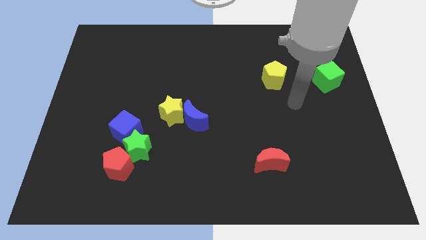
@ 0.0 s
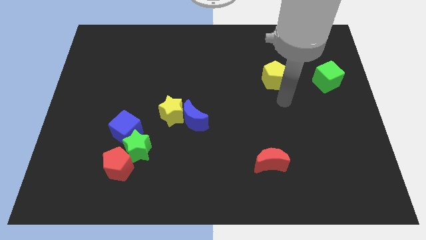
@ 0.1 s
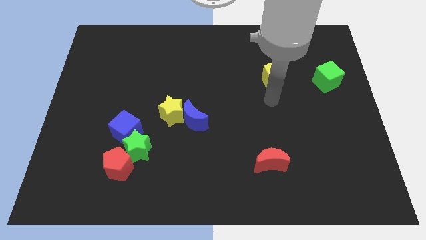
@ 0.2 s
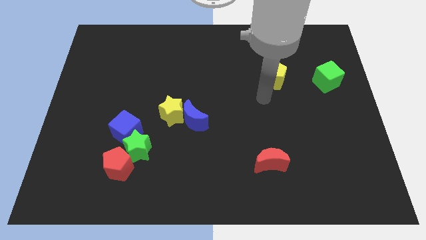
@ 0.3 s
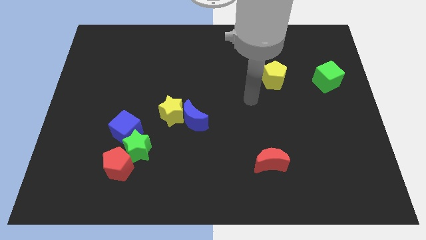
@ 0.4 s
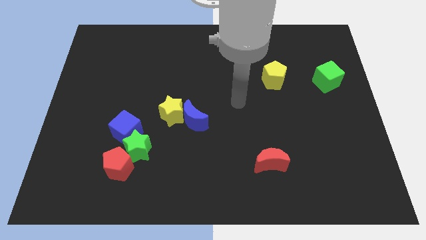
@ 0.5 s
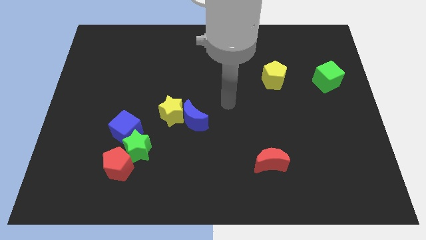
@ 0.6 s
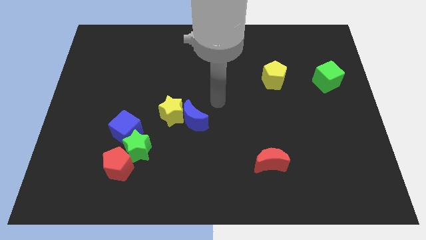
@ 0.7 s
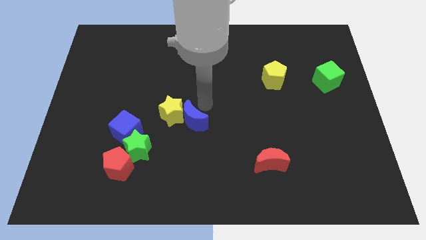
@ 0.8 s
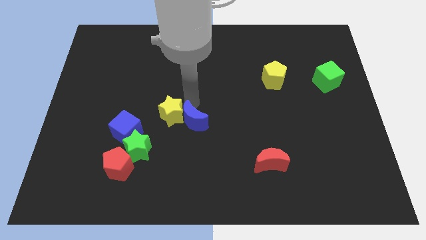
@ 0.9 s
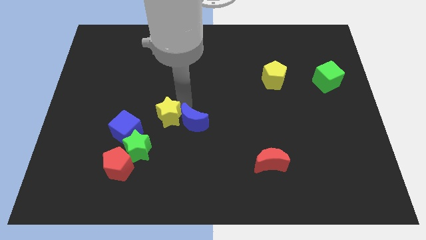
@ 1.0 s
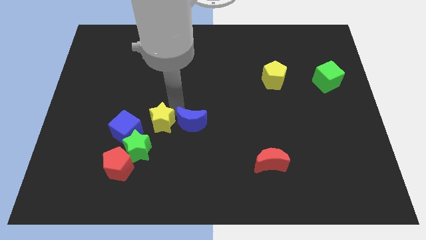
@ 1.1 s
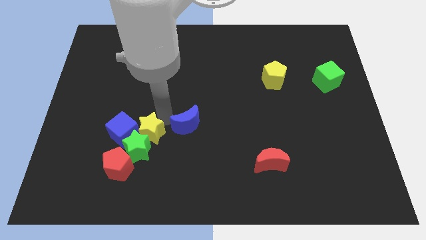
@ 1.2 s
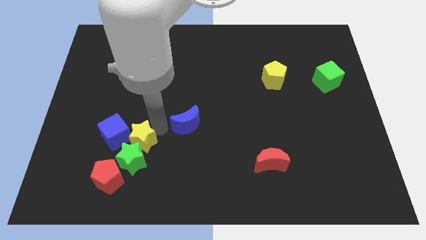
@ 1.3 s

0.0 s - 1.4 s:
pull the blue moon apart from the yellow star

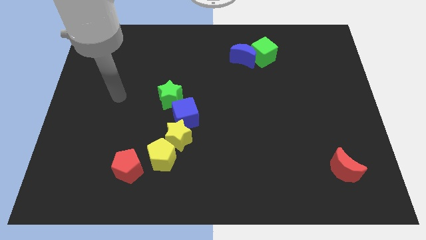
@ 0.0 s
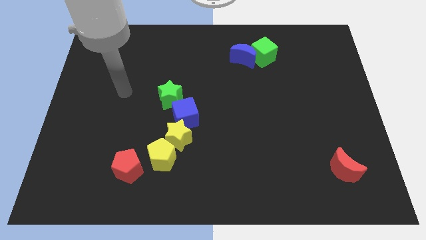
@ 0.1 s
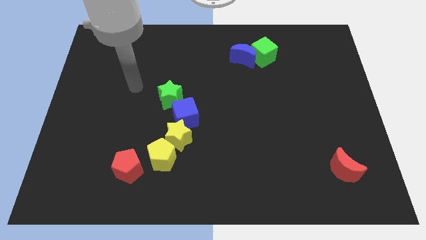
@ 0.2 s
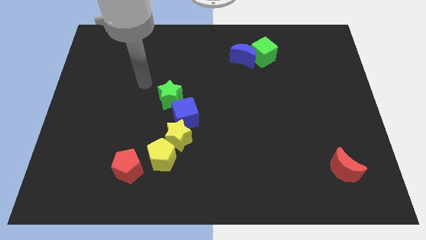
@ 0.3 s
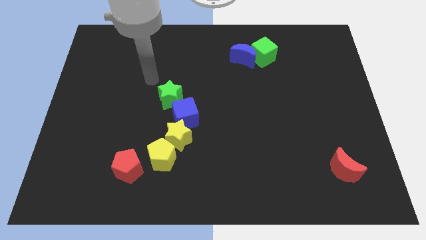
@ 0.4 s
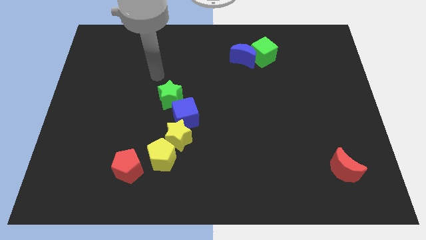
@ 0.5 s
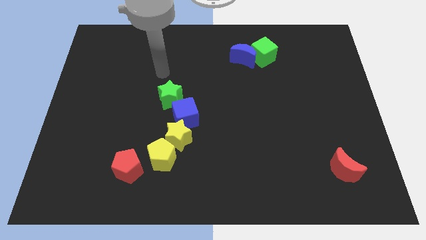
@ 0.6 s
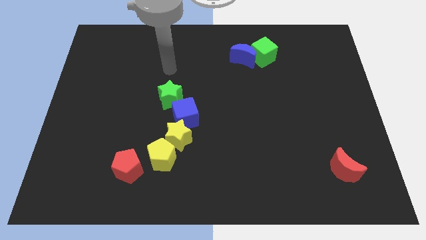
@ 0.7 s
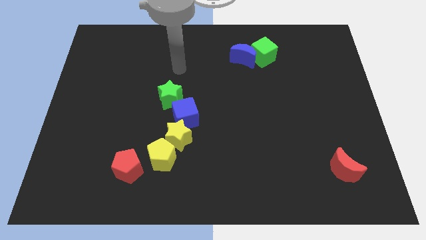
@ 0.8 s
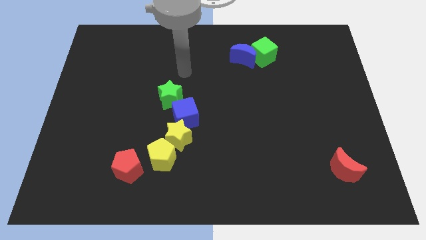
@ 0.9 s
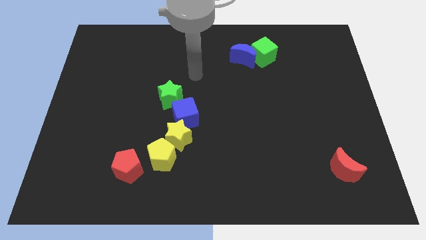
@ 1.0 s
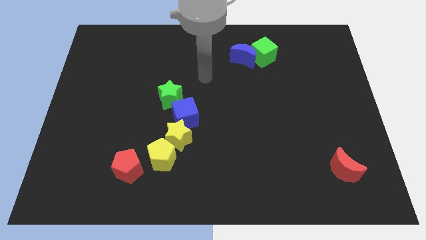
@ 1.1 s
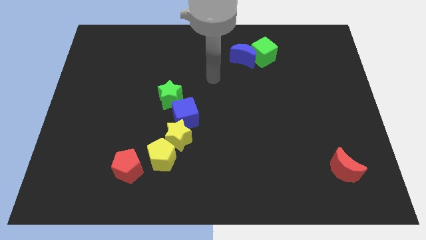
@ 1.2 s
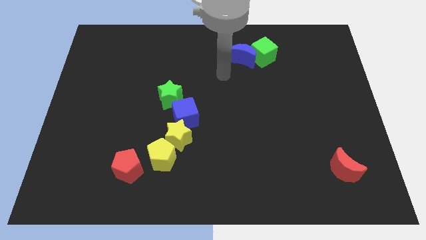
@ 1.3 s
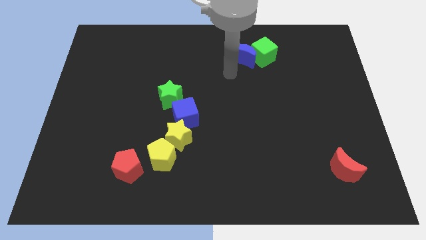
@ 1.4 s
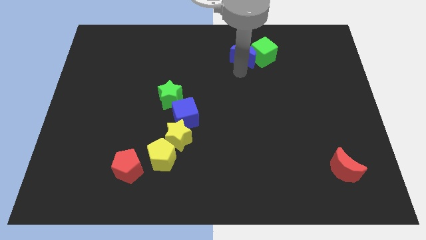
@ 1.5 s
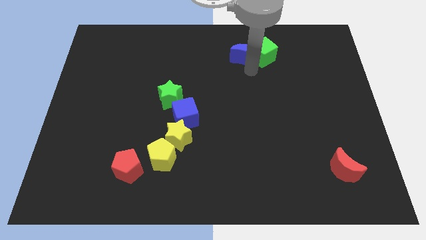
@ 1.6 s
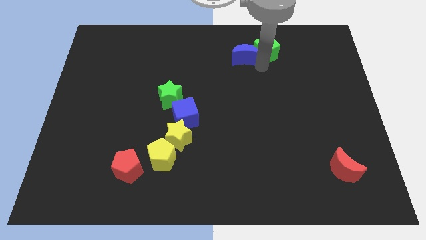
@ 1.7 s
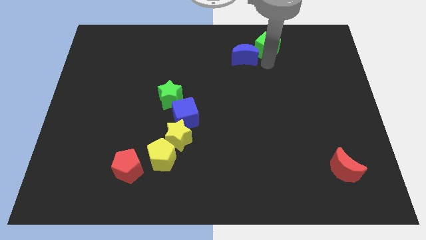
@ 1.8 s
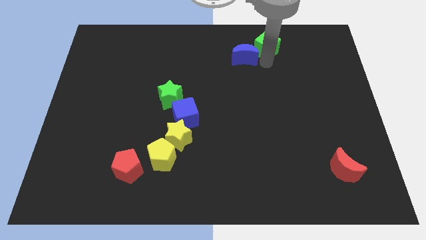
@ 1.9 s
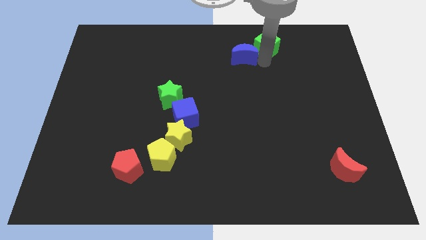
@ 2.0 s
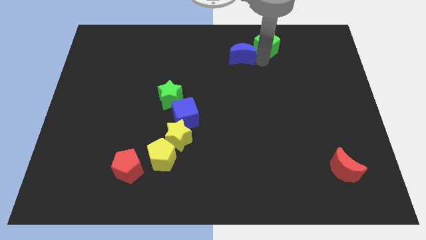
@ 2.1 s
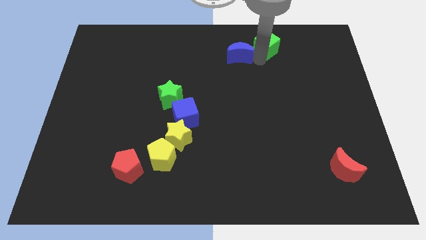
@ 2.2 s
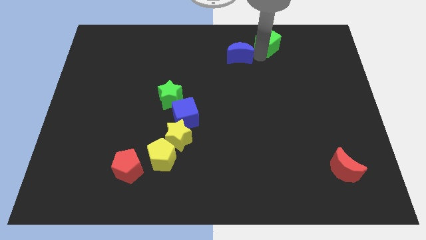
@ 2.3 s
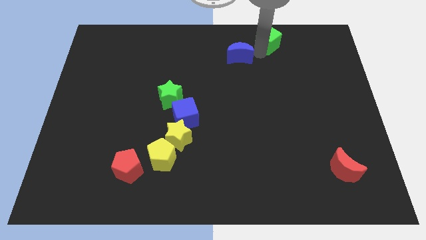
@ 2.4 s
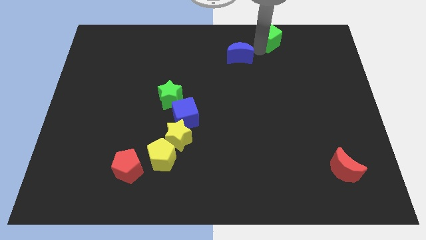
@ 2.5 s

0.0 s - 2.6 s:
move the blue moon away from the green cube

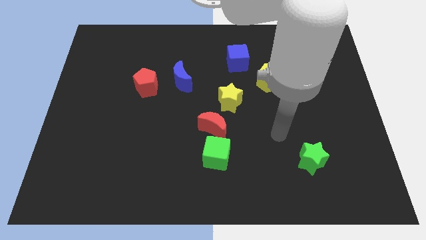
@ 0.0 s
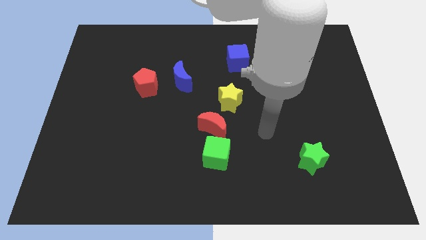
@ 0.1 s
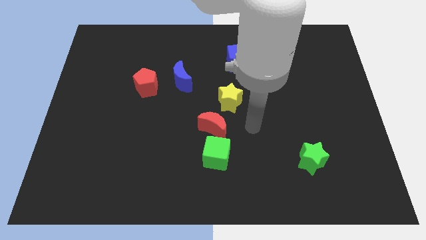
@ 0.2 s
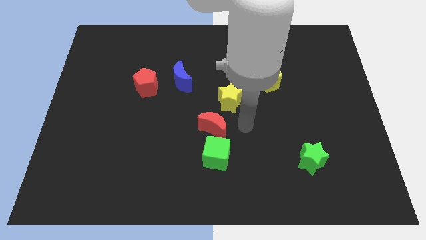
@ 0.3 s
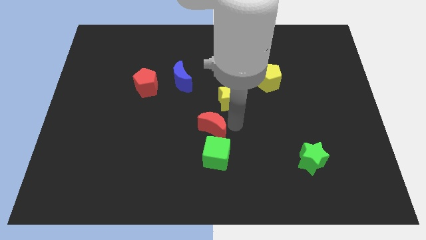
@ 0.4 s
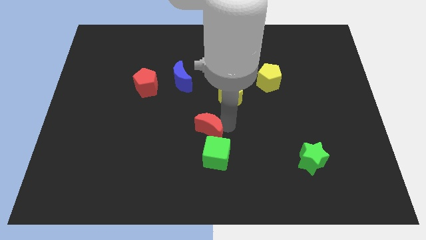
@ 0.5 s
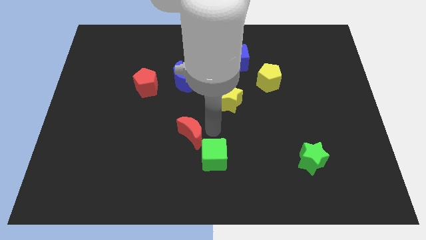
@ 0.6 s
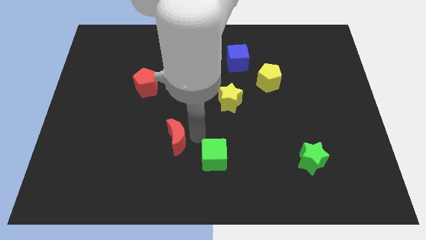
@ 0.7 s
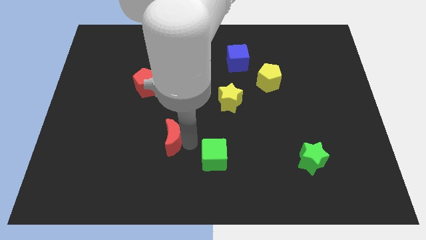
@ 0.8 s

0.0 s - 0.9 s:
pull the green cube apart from the red moon

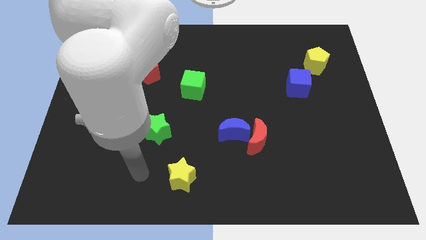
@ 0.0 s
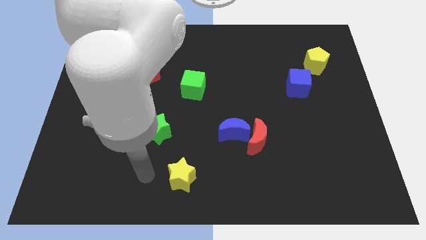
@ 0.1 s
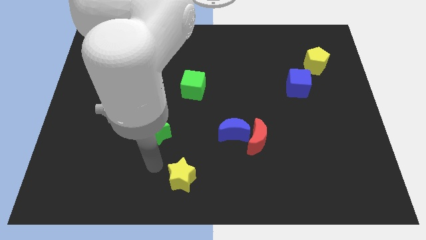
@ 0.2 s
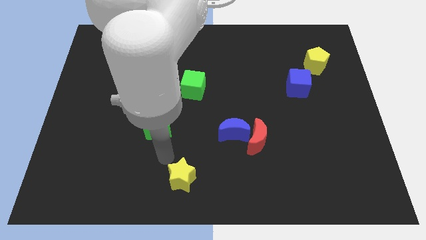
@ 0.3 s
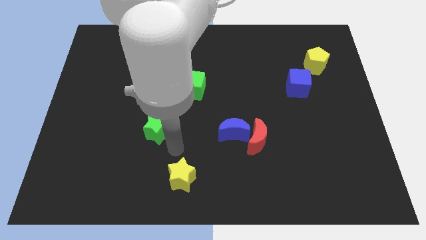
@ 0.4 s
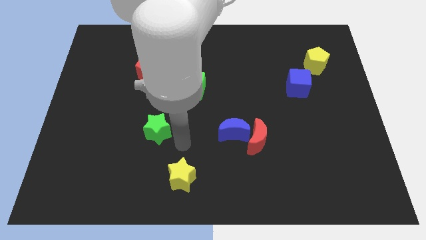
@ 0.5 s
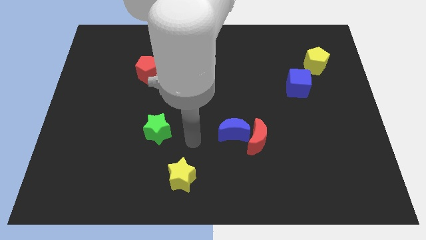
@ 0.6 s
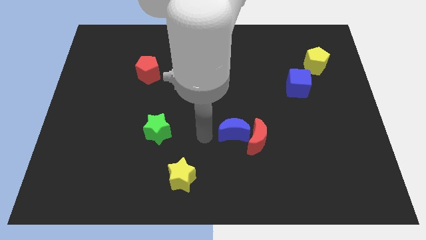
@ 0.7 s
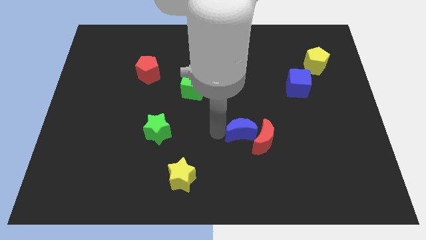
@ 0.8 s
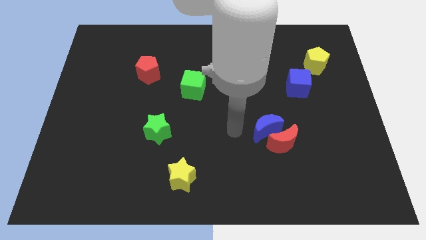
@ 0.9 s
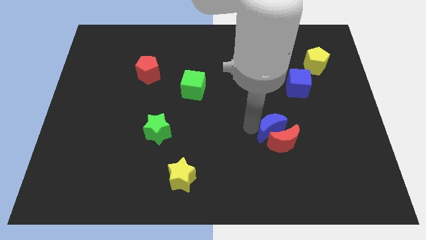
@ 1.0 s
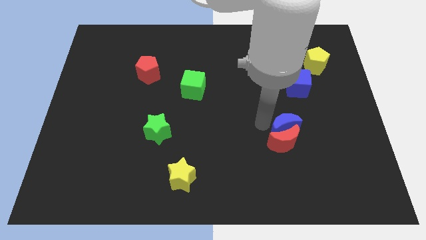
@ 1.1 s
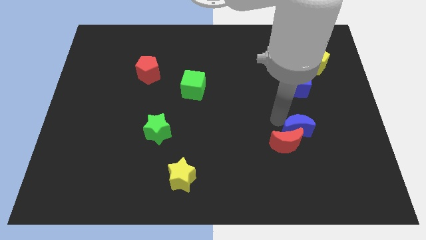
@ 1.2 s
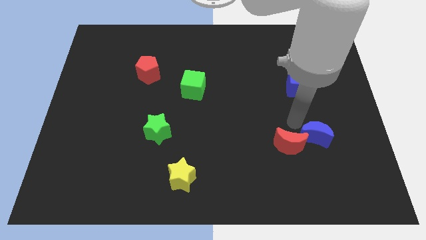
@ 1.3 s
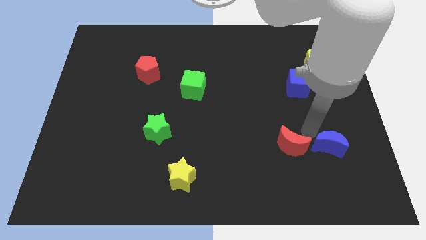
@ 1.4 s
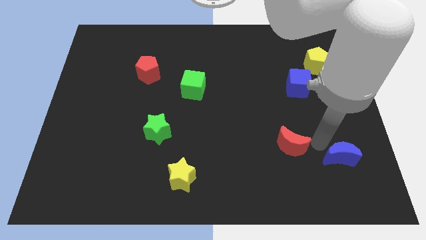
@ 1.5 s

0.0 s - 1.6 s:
move the red moon away from the blue moon

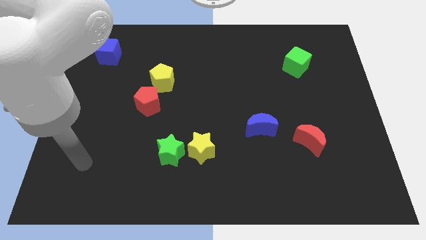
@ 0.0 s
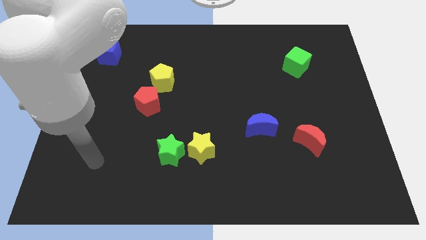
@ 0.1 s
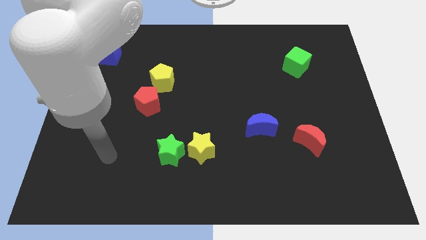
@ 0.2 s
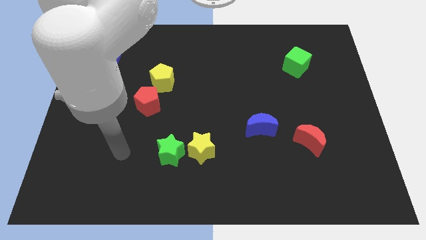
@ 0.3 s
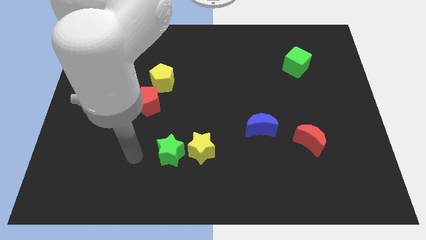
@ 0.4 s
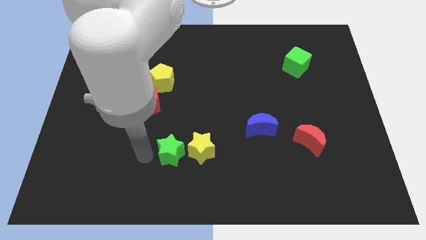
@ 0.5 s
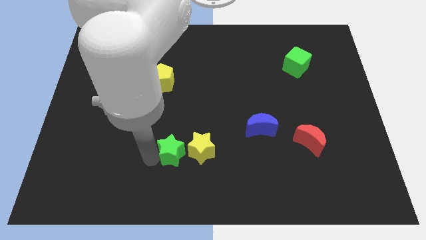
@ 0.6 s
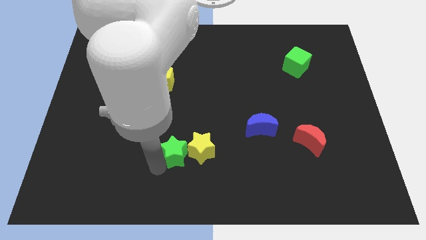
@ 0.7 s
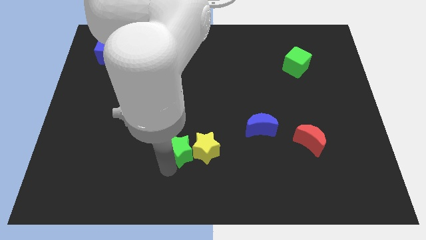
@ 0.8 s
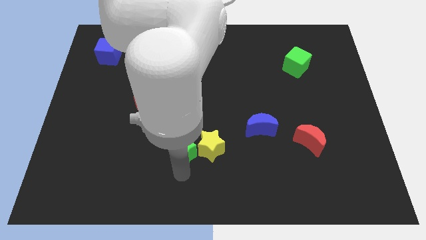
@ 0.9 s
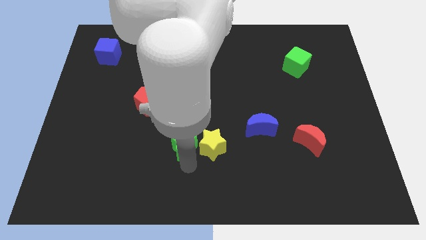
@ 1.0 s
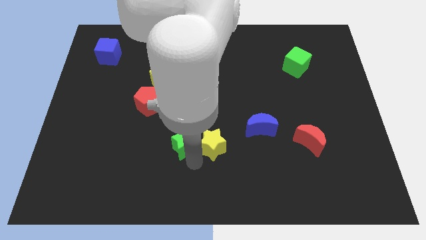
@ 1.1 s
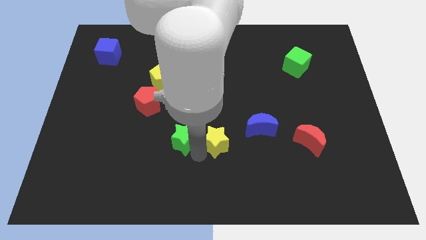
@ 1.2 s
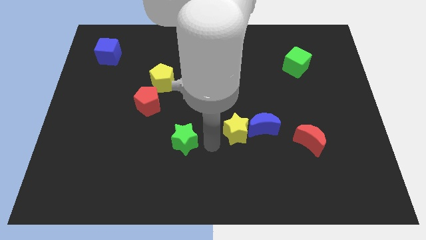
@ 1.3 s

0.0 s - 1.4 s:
move the green star away from the yellow star

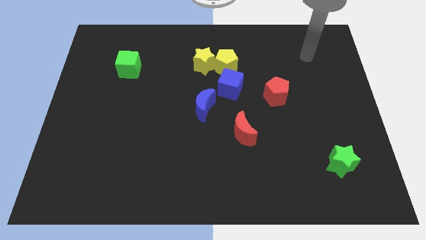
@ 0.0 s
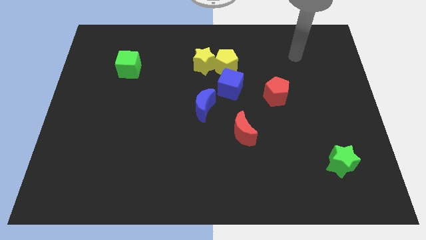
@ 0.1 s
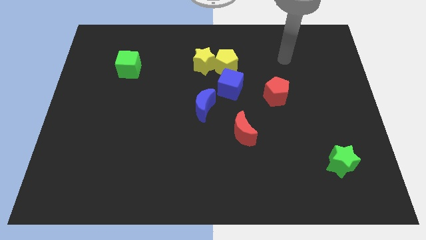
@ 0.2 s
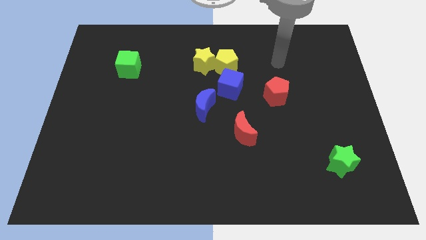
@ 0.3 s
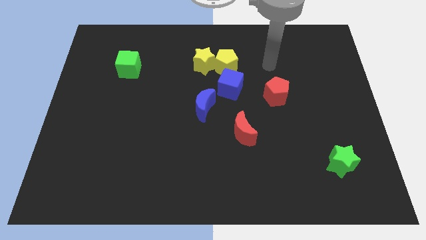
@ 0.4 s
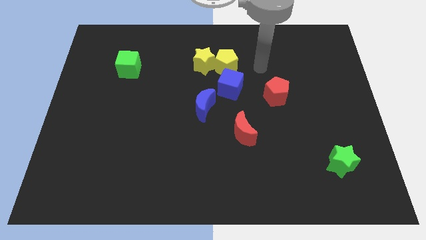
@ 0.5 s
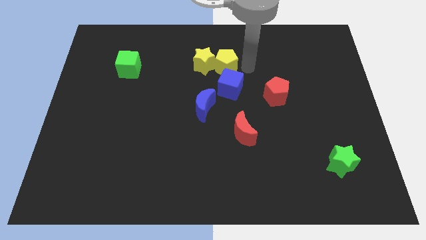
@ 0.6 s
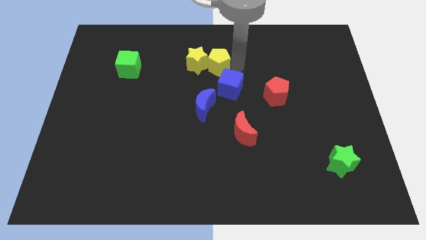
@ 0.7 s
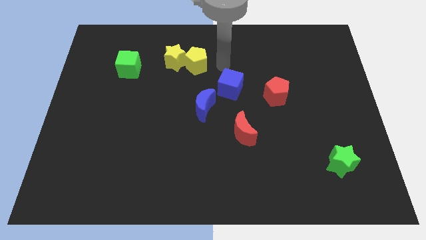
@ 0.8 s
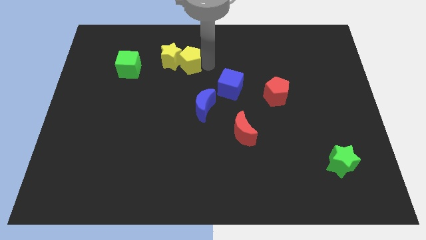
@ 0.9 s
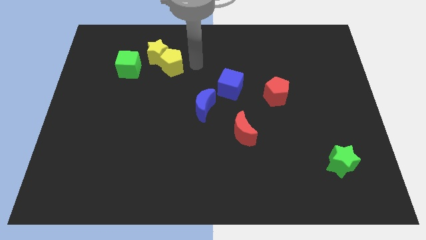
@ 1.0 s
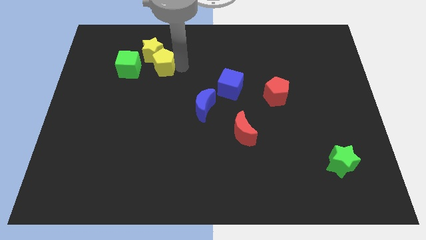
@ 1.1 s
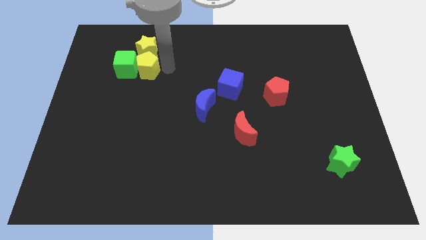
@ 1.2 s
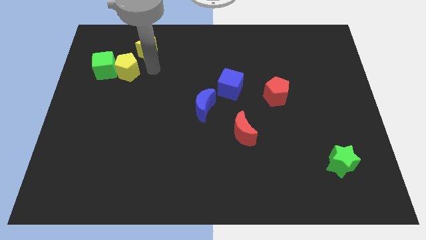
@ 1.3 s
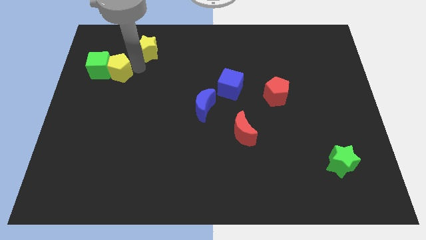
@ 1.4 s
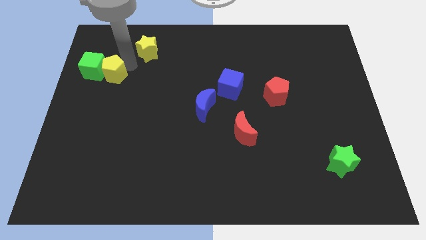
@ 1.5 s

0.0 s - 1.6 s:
move the yellow star away from the yellow pentagon

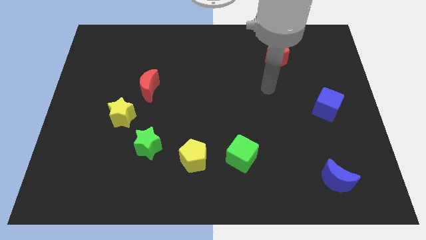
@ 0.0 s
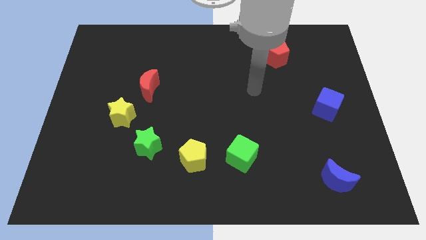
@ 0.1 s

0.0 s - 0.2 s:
pull the red moon apart from the yellow star
